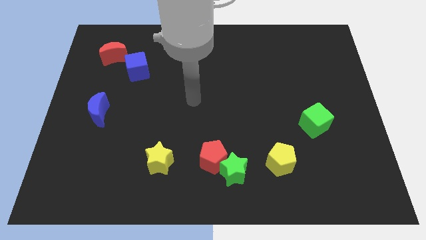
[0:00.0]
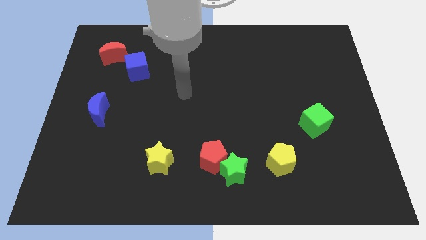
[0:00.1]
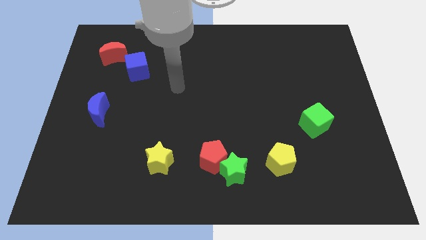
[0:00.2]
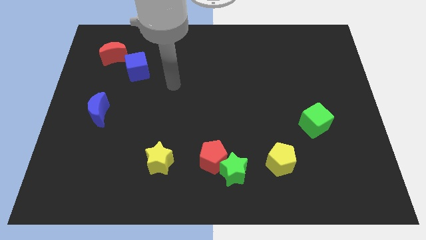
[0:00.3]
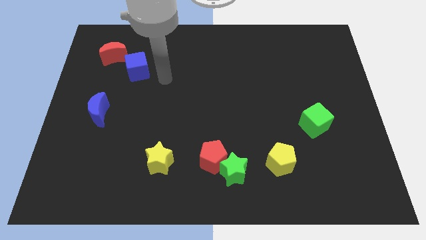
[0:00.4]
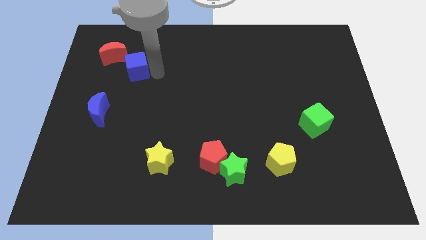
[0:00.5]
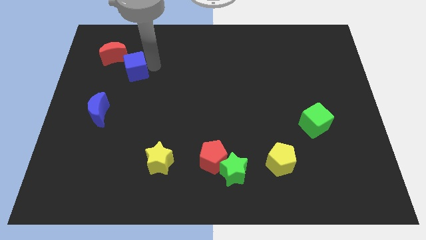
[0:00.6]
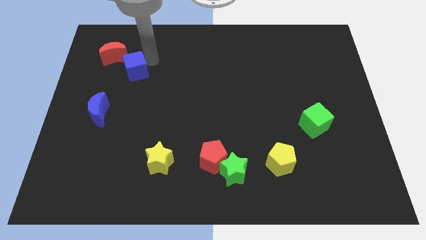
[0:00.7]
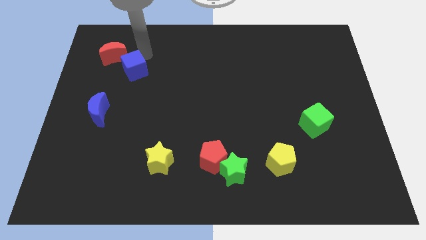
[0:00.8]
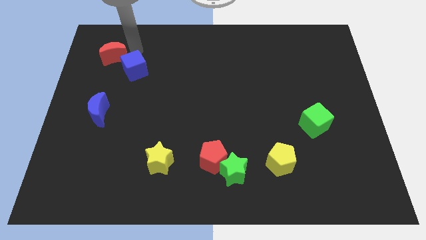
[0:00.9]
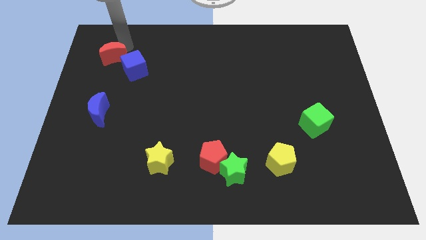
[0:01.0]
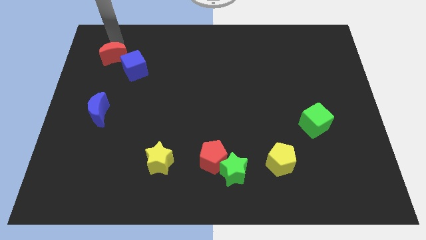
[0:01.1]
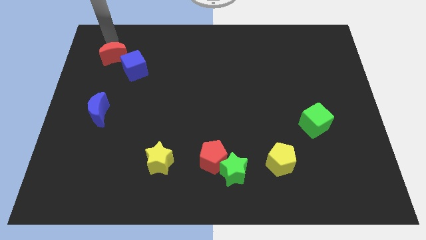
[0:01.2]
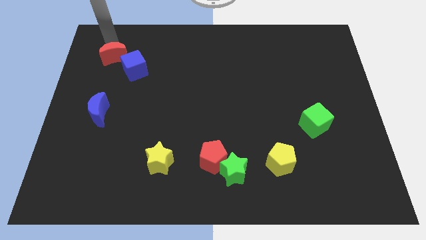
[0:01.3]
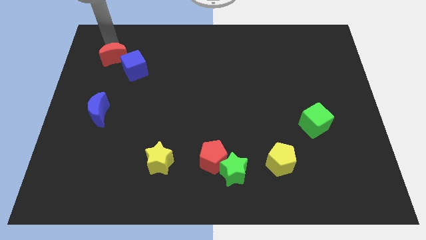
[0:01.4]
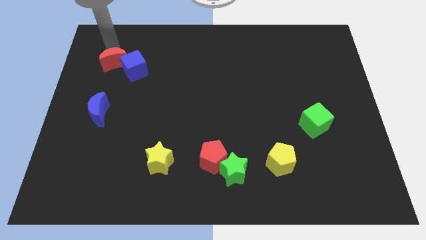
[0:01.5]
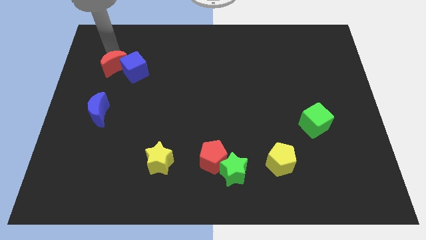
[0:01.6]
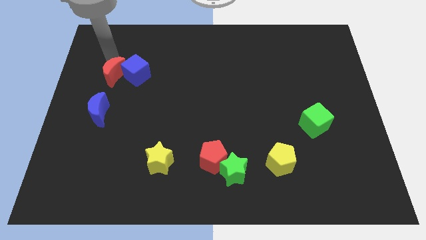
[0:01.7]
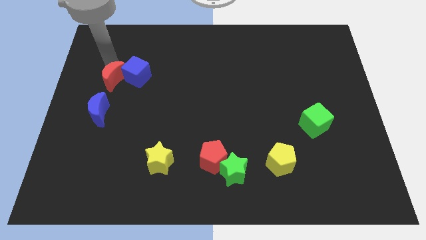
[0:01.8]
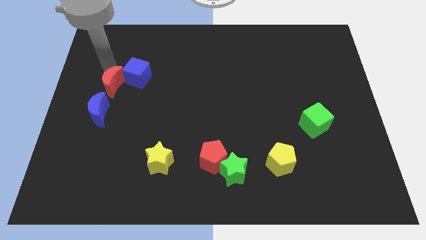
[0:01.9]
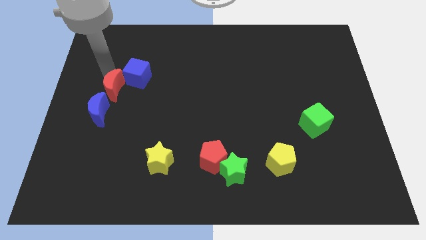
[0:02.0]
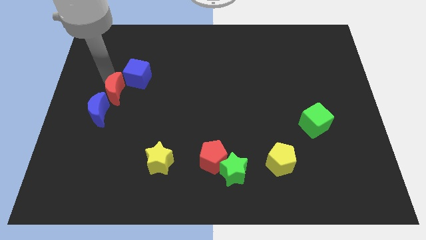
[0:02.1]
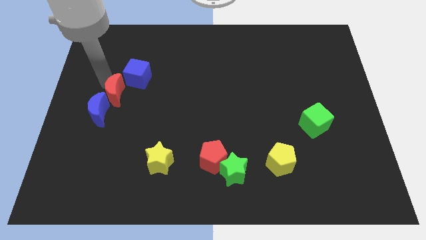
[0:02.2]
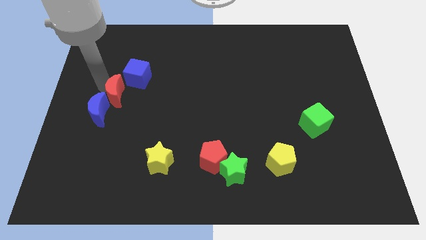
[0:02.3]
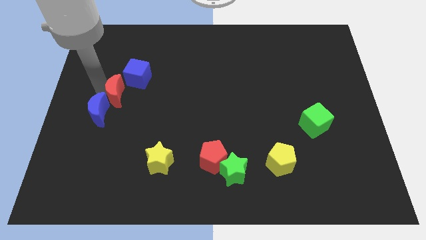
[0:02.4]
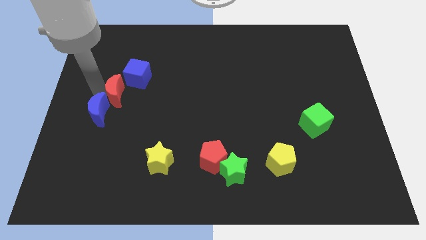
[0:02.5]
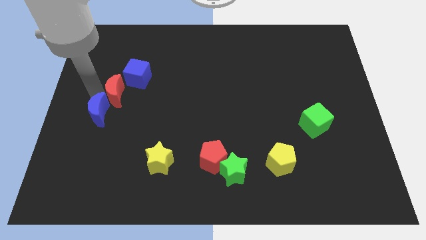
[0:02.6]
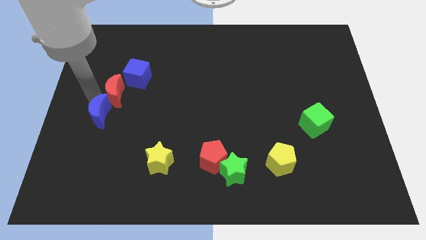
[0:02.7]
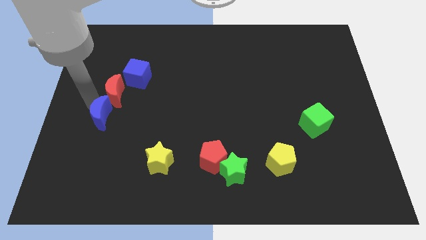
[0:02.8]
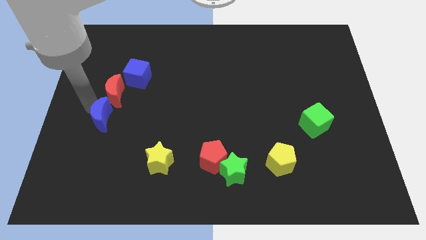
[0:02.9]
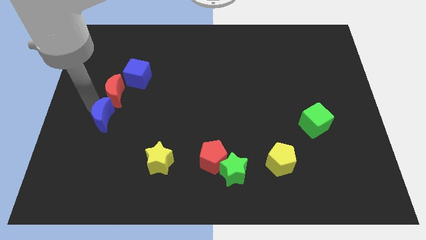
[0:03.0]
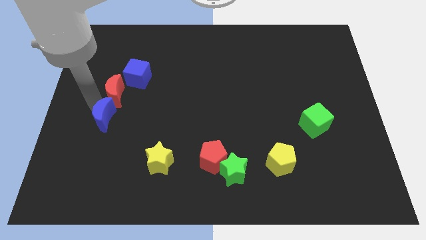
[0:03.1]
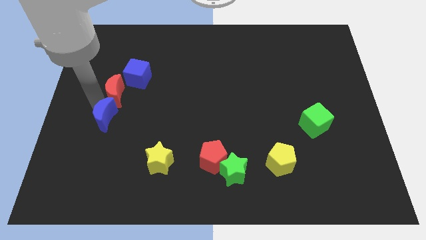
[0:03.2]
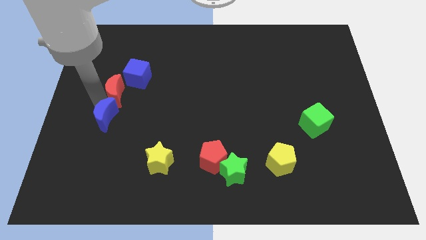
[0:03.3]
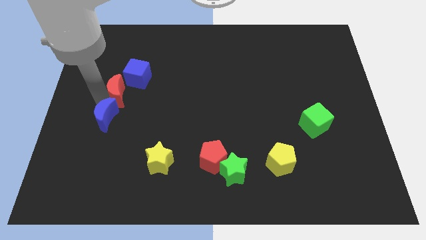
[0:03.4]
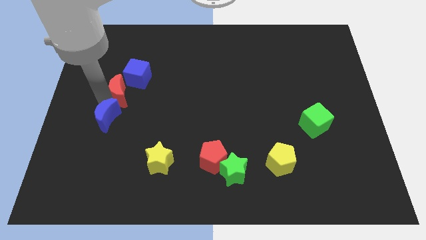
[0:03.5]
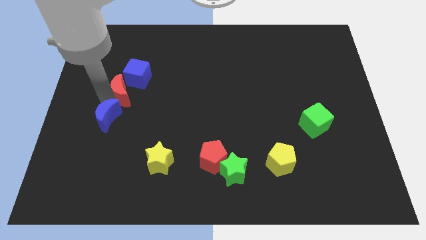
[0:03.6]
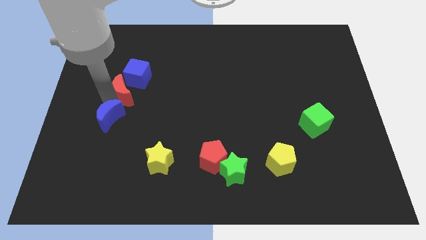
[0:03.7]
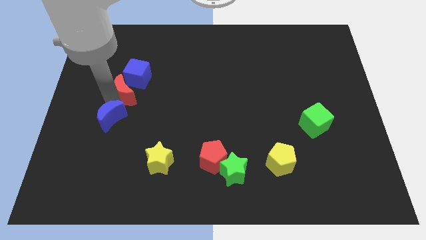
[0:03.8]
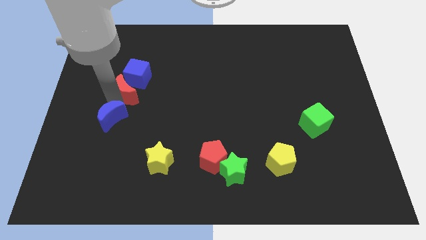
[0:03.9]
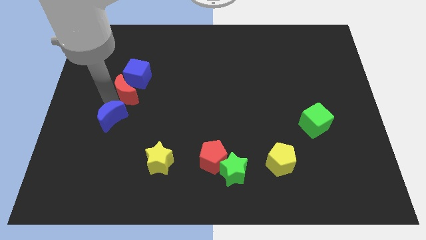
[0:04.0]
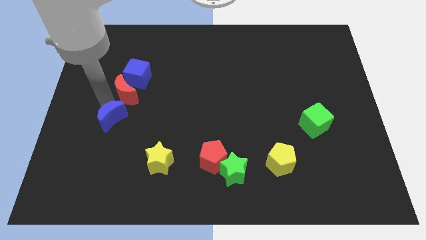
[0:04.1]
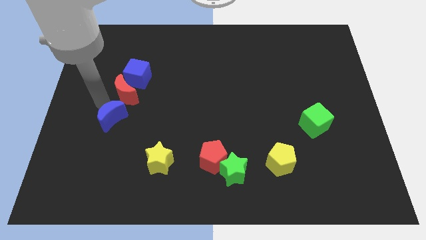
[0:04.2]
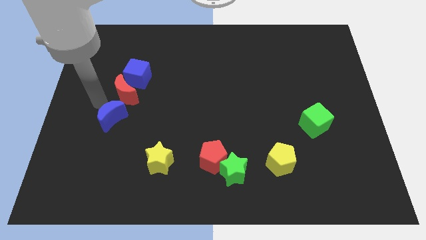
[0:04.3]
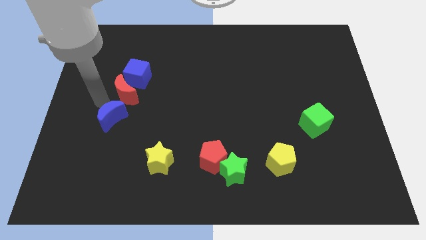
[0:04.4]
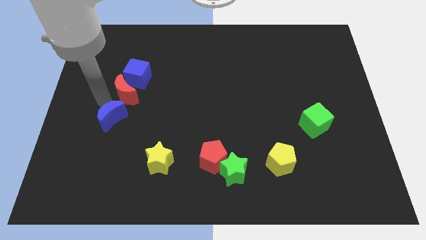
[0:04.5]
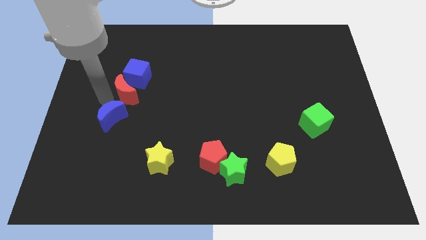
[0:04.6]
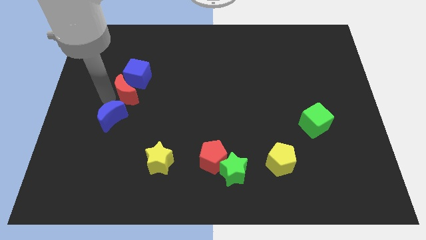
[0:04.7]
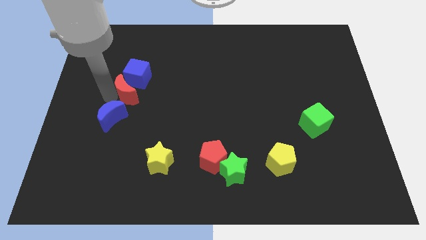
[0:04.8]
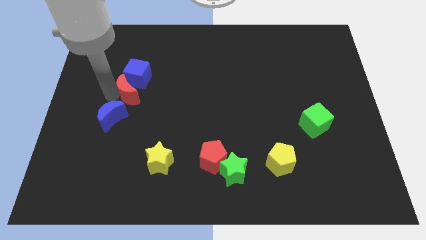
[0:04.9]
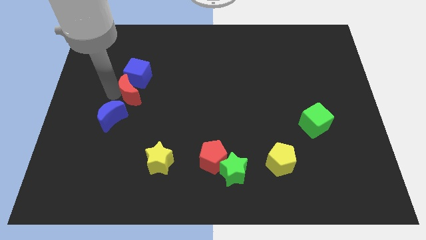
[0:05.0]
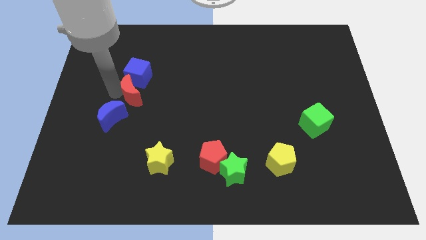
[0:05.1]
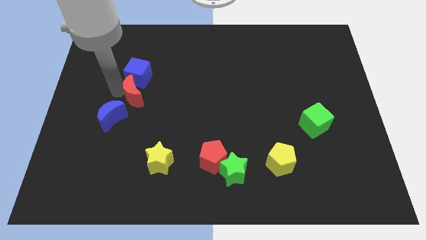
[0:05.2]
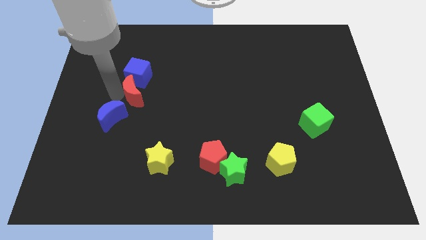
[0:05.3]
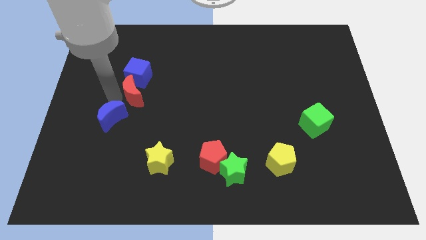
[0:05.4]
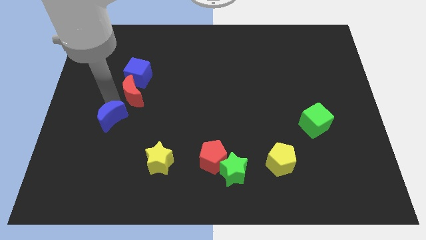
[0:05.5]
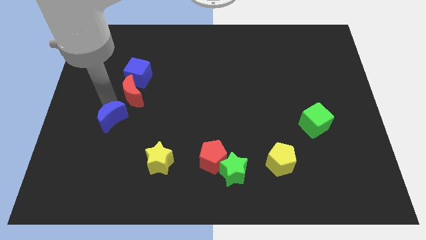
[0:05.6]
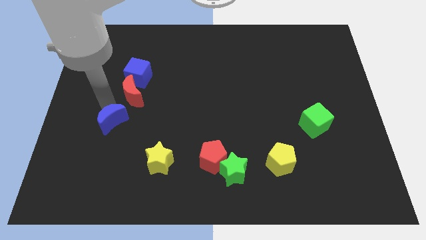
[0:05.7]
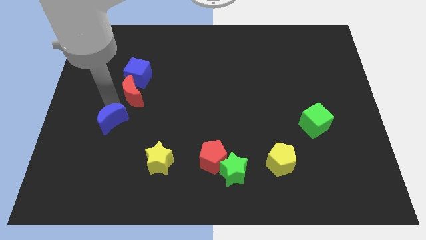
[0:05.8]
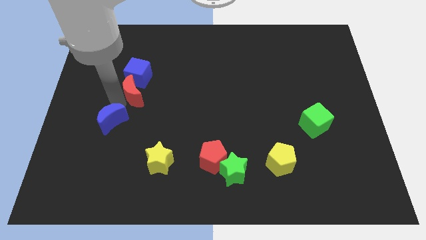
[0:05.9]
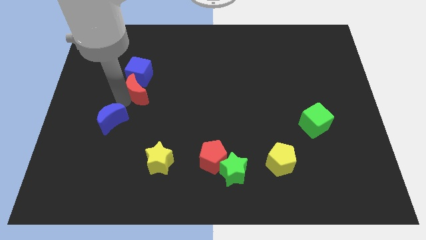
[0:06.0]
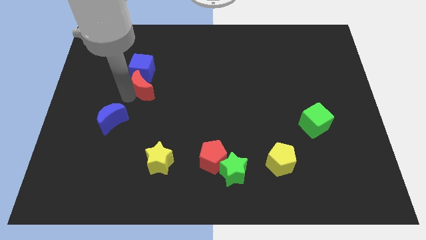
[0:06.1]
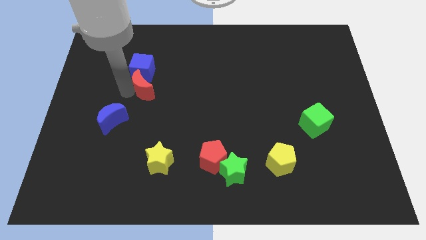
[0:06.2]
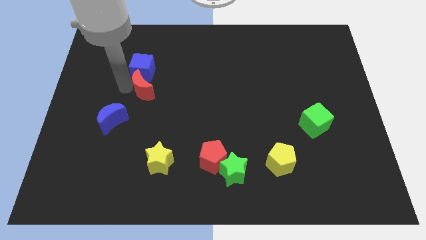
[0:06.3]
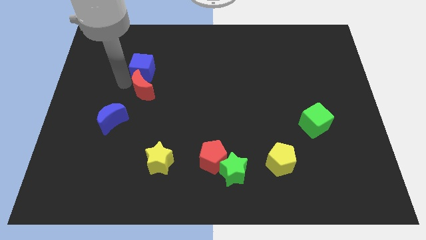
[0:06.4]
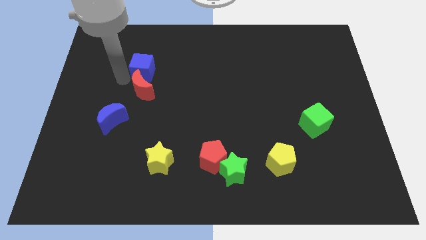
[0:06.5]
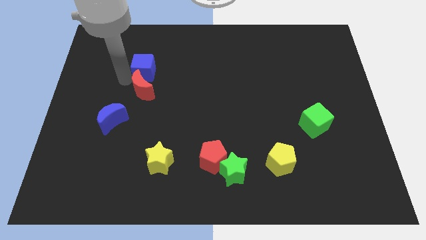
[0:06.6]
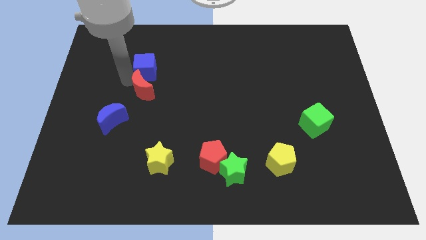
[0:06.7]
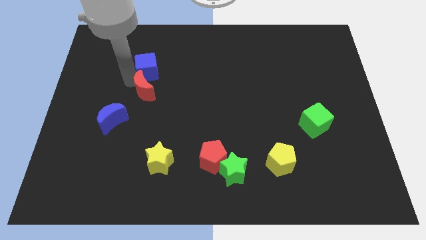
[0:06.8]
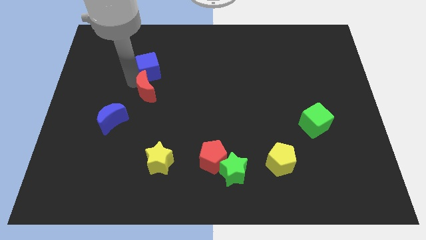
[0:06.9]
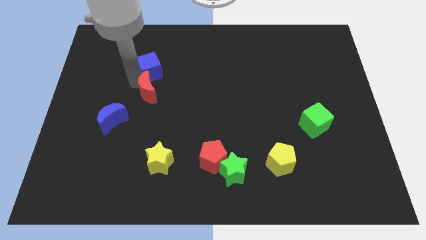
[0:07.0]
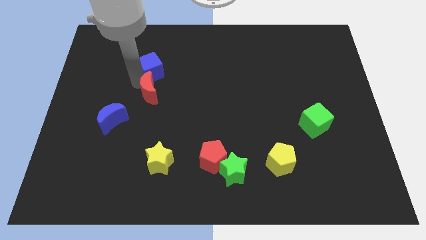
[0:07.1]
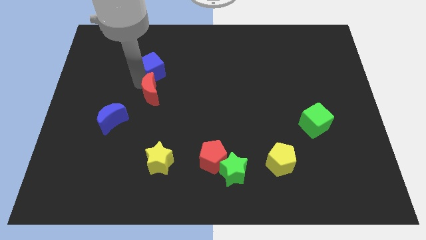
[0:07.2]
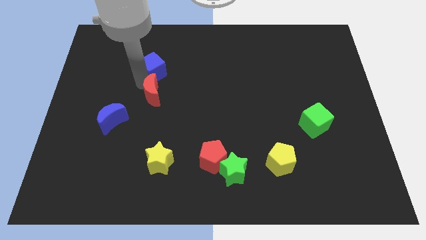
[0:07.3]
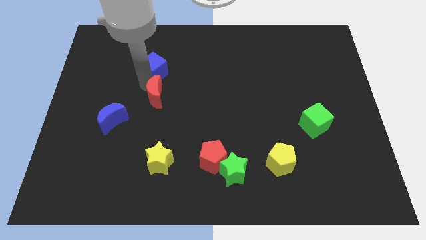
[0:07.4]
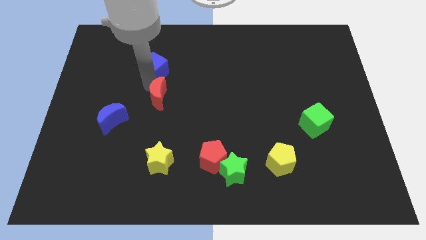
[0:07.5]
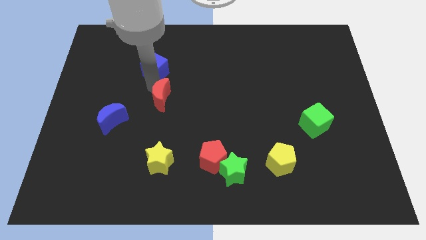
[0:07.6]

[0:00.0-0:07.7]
move the red moon downwards and to the right
